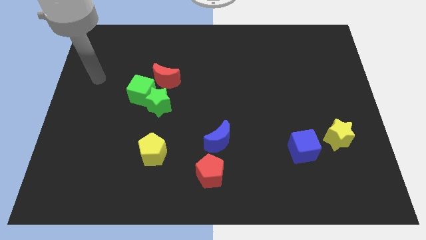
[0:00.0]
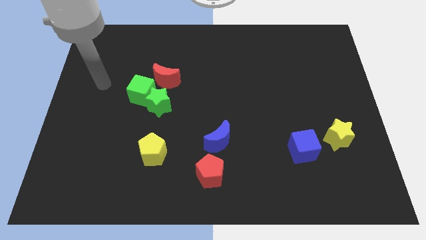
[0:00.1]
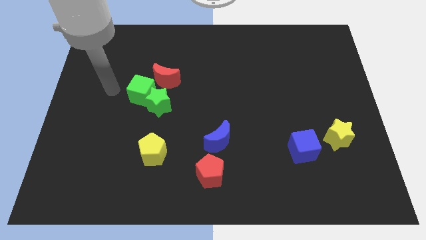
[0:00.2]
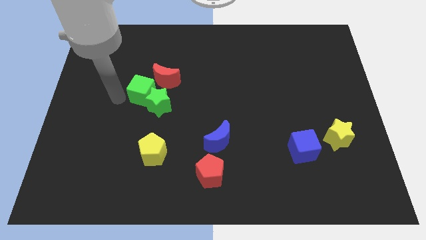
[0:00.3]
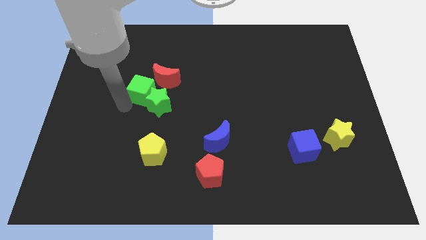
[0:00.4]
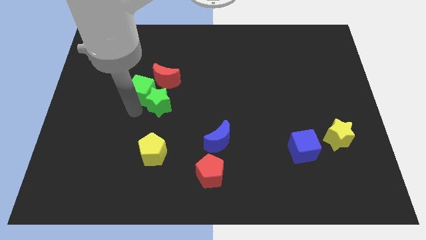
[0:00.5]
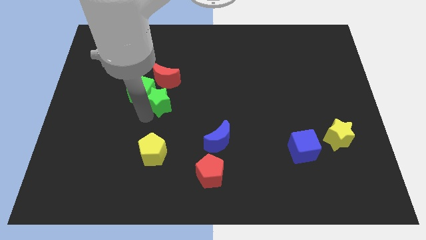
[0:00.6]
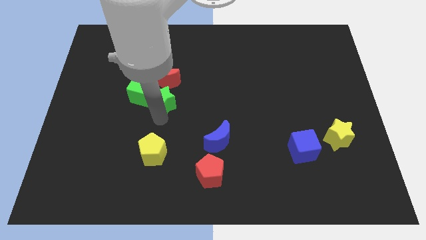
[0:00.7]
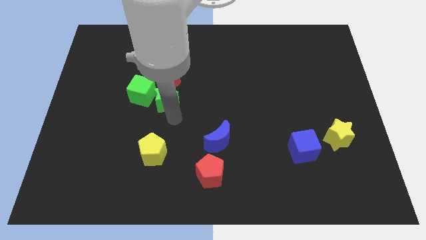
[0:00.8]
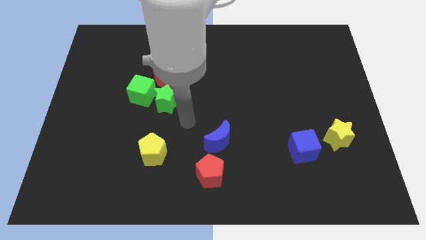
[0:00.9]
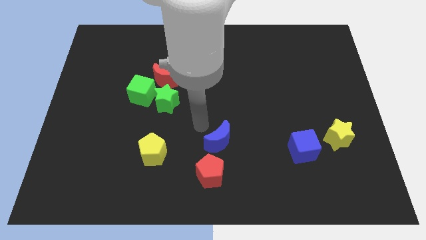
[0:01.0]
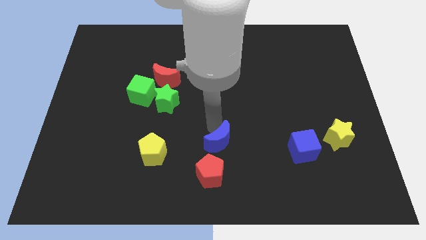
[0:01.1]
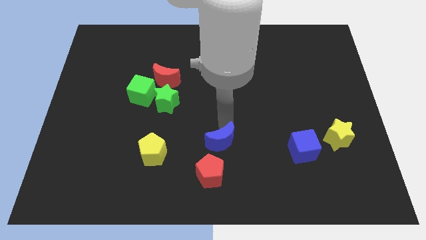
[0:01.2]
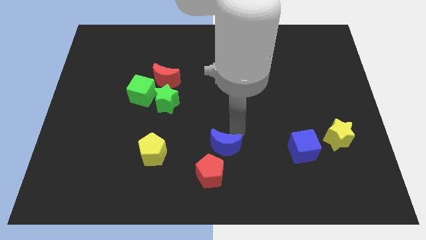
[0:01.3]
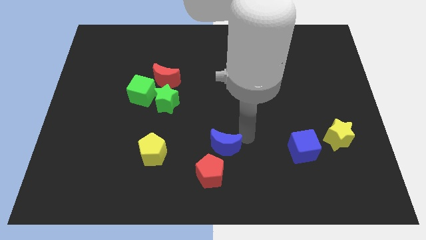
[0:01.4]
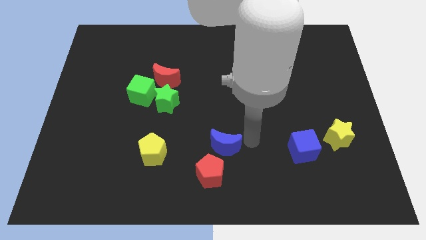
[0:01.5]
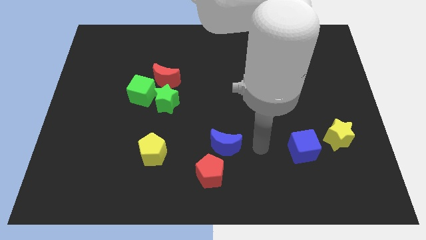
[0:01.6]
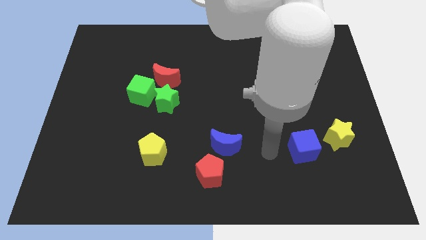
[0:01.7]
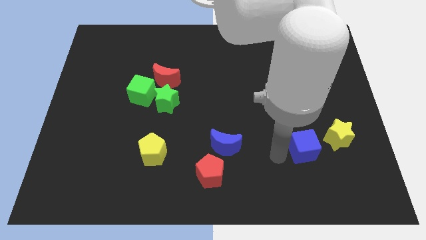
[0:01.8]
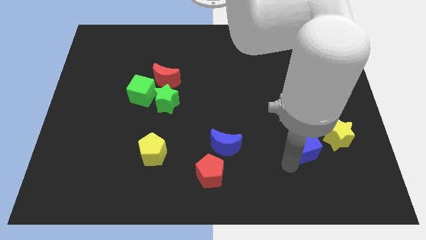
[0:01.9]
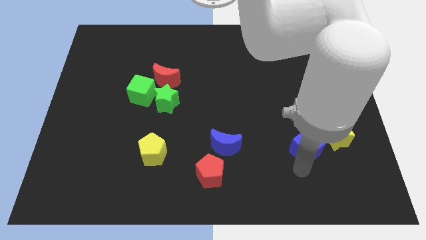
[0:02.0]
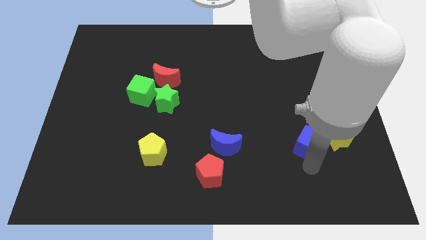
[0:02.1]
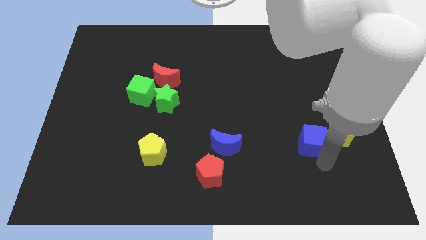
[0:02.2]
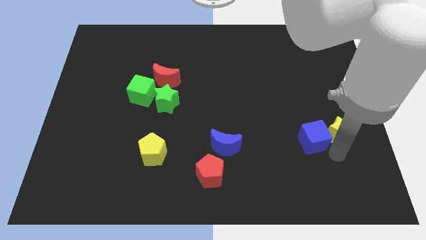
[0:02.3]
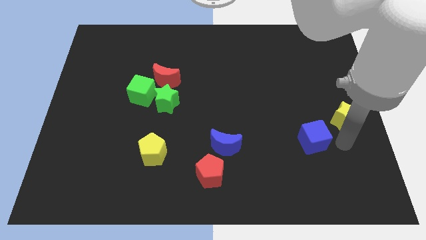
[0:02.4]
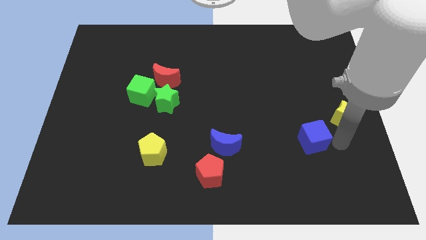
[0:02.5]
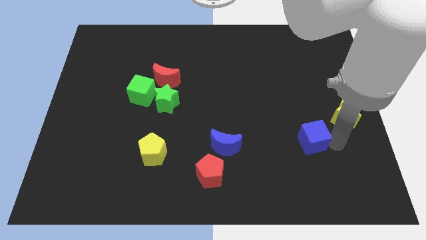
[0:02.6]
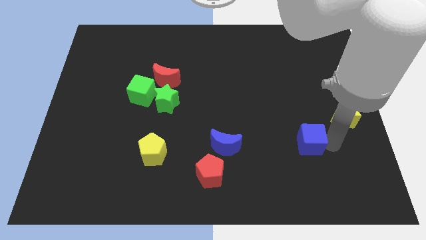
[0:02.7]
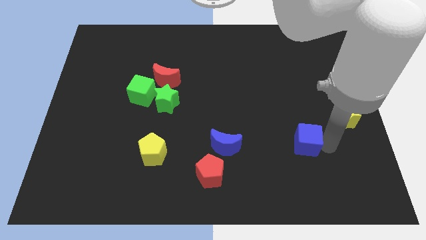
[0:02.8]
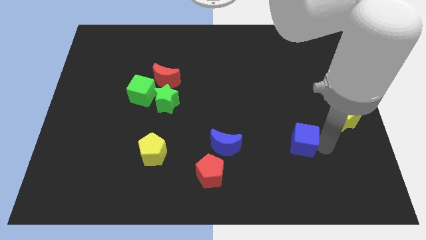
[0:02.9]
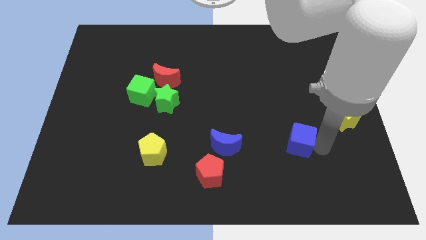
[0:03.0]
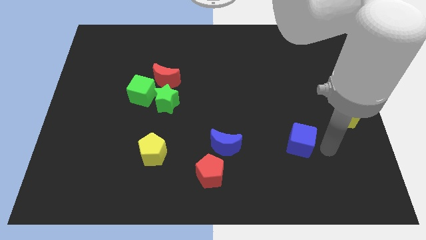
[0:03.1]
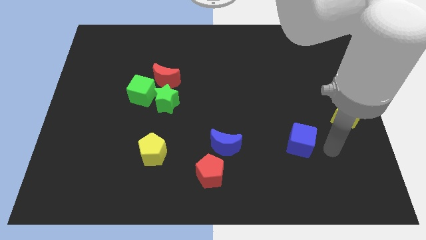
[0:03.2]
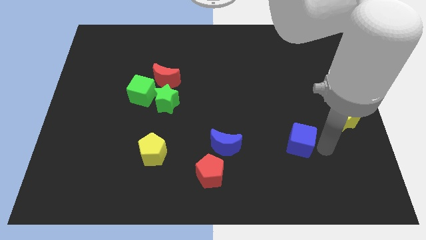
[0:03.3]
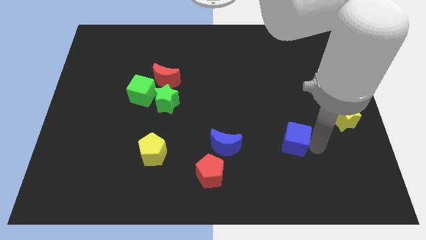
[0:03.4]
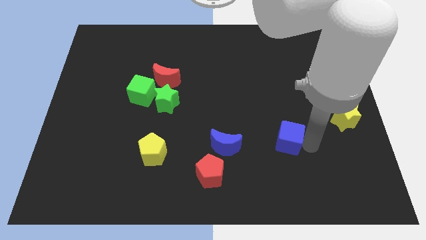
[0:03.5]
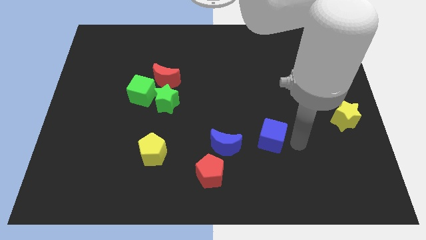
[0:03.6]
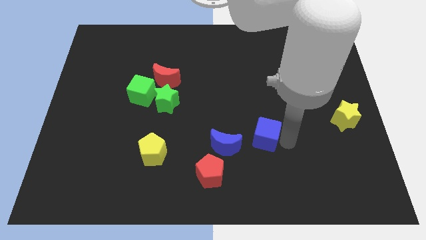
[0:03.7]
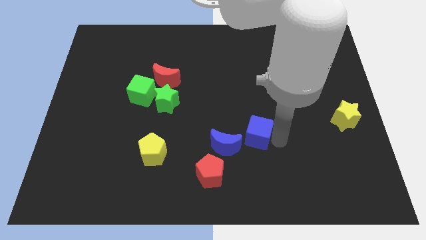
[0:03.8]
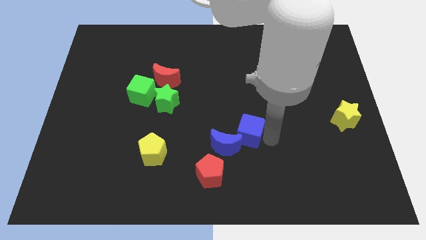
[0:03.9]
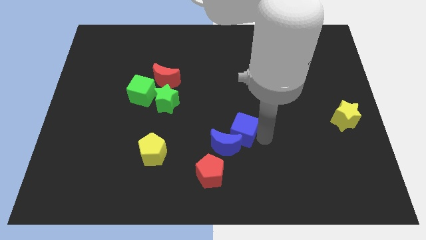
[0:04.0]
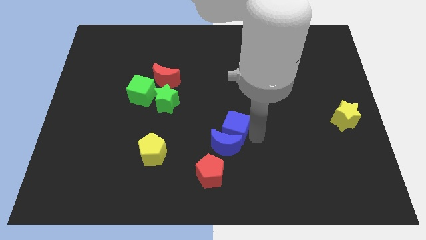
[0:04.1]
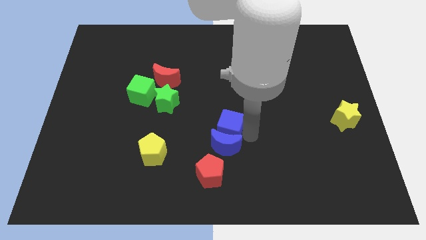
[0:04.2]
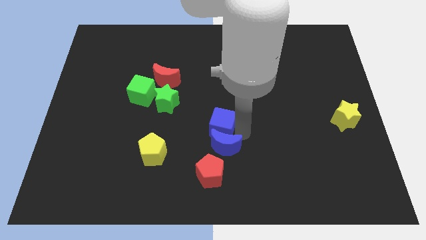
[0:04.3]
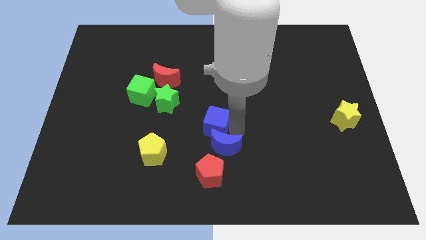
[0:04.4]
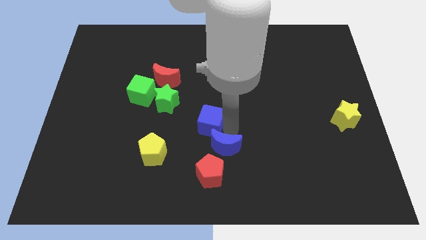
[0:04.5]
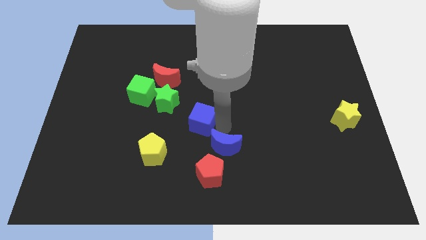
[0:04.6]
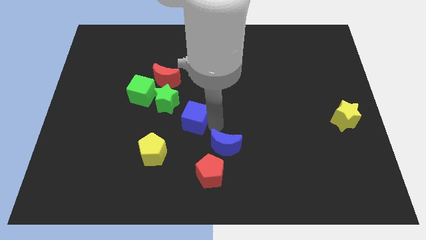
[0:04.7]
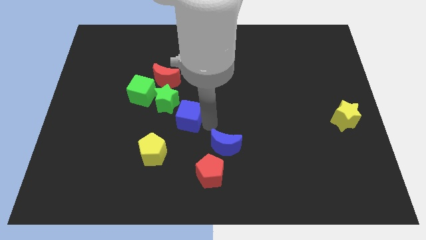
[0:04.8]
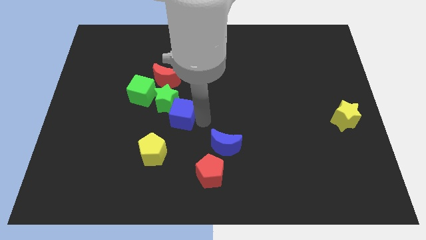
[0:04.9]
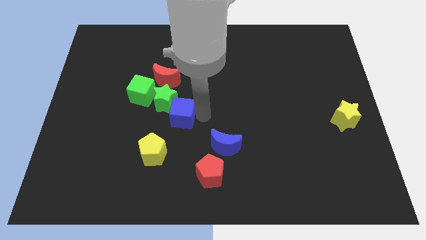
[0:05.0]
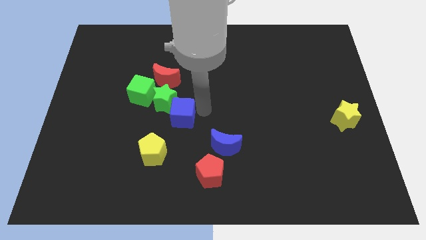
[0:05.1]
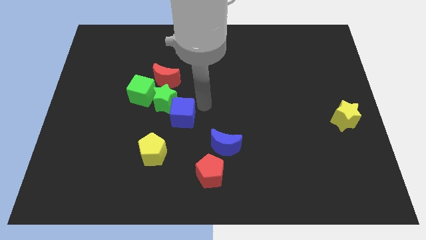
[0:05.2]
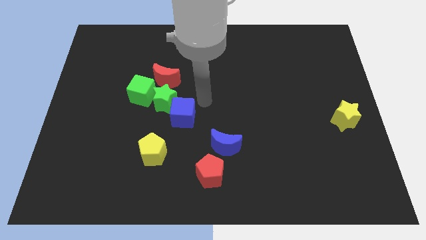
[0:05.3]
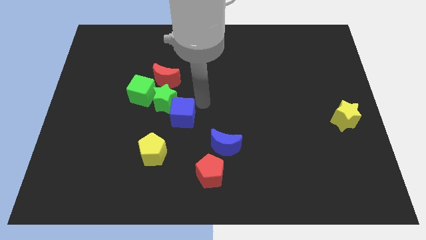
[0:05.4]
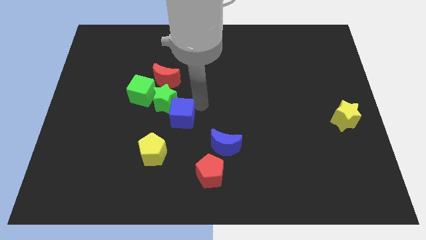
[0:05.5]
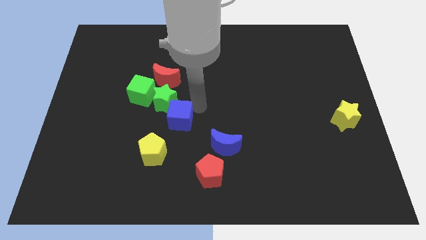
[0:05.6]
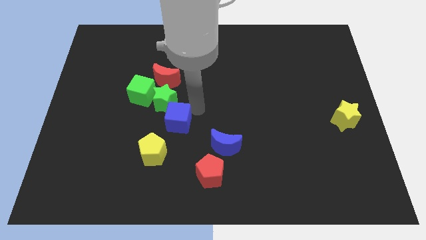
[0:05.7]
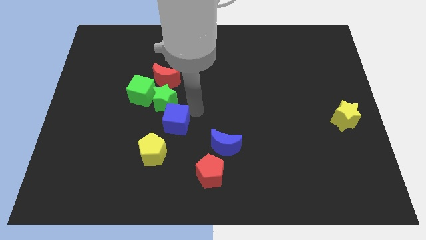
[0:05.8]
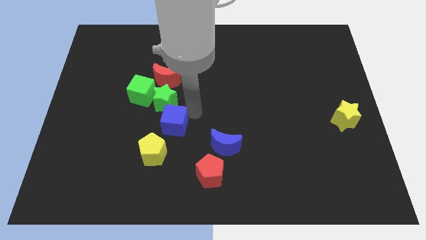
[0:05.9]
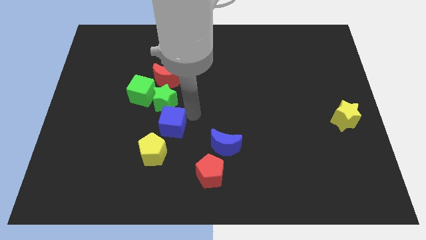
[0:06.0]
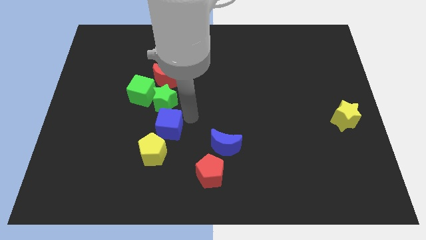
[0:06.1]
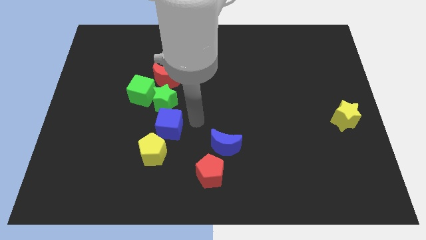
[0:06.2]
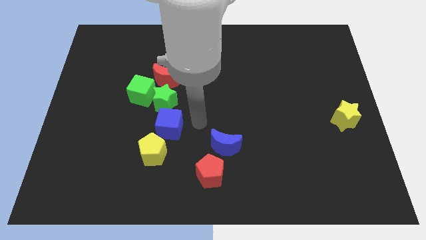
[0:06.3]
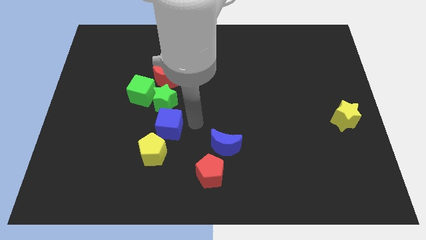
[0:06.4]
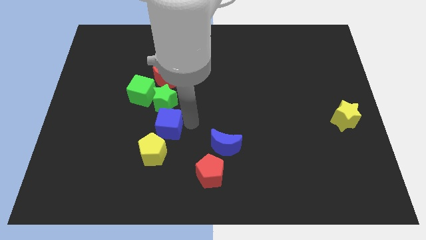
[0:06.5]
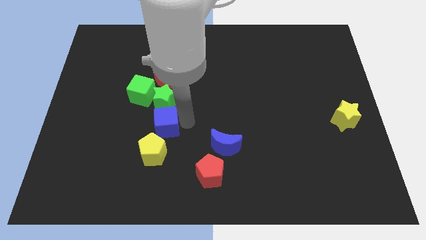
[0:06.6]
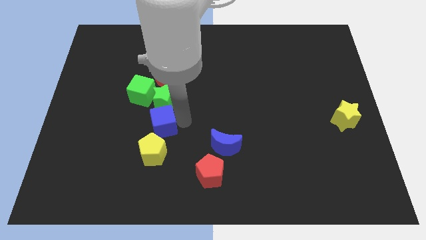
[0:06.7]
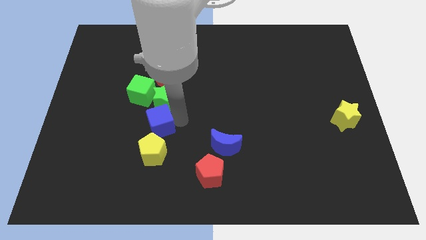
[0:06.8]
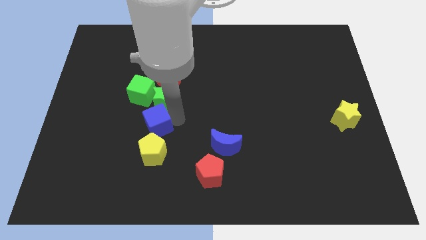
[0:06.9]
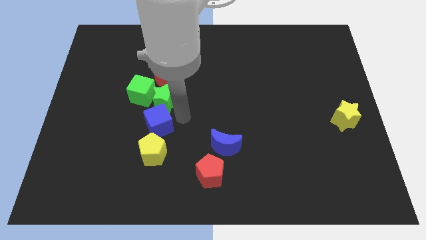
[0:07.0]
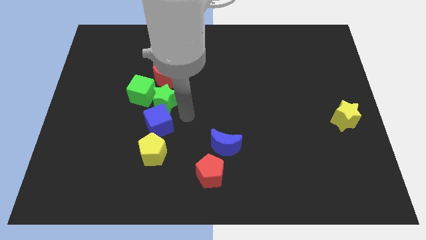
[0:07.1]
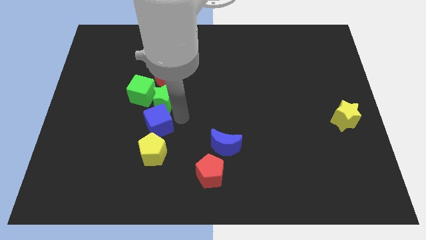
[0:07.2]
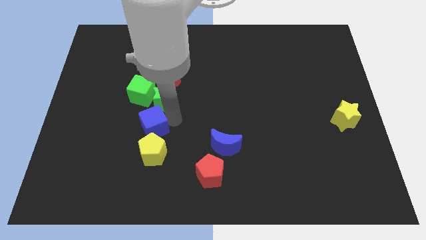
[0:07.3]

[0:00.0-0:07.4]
push the blue cube diagonally up and to the left of the yellow pentagon

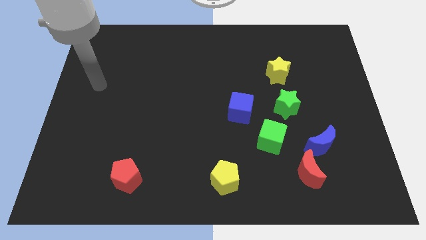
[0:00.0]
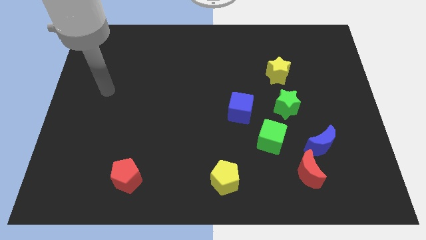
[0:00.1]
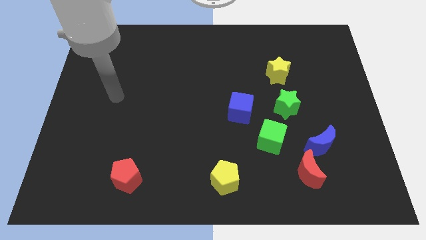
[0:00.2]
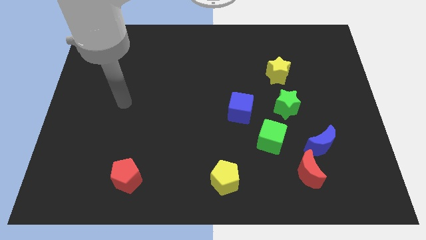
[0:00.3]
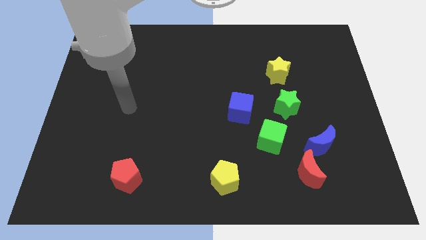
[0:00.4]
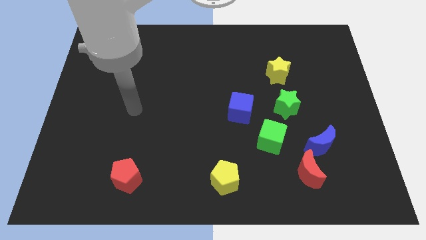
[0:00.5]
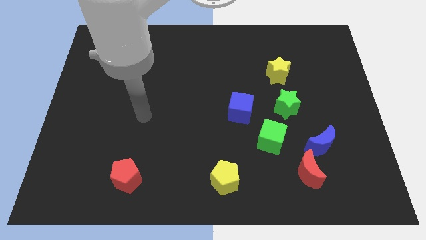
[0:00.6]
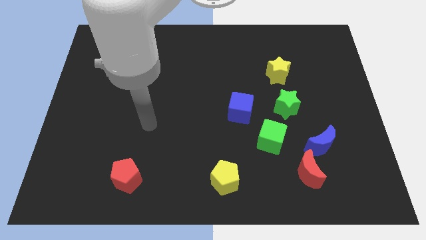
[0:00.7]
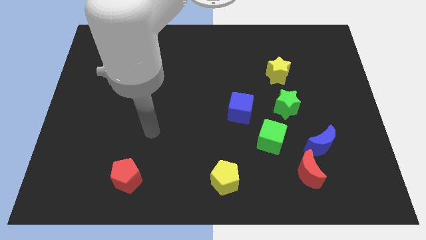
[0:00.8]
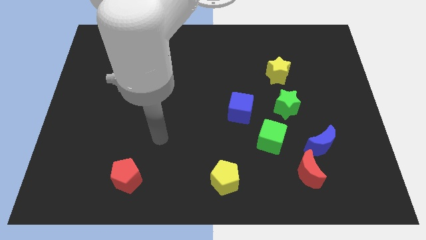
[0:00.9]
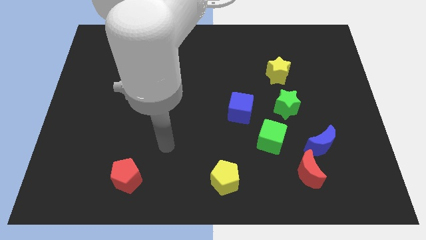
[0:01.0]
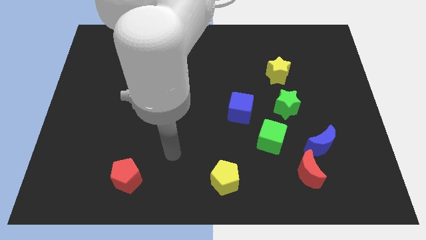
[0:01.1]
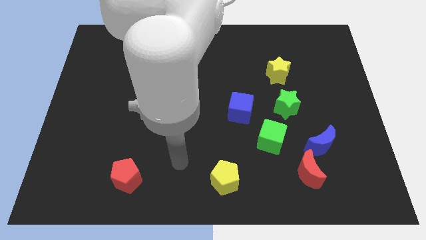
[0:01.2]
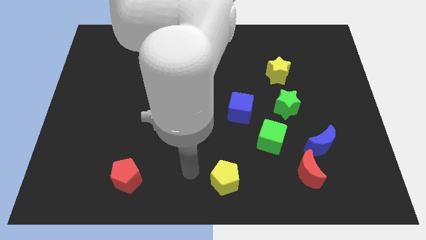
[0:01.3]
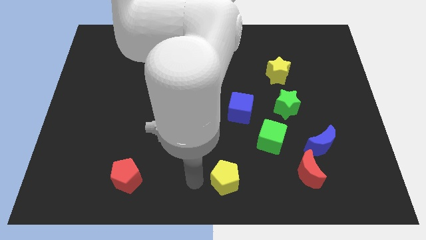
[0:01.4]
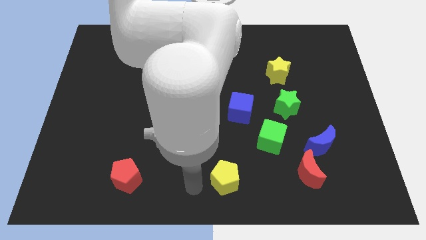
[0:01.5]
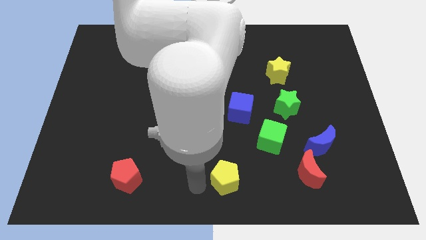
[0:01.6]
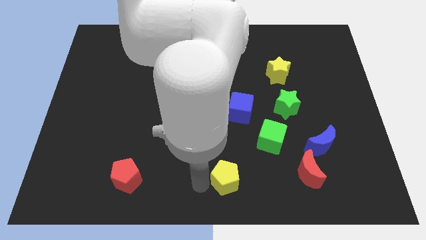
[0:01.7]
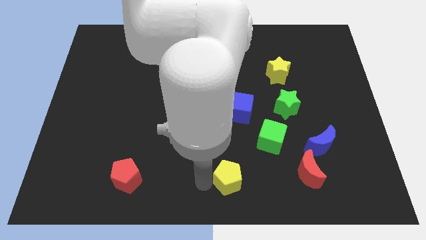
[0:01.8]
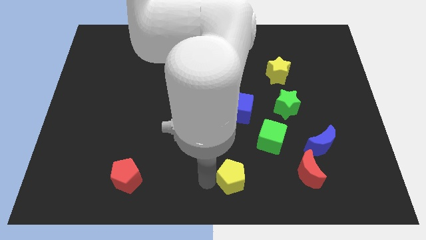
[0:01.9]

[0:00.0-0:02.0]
slide the yellow pentagon left of the red moon
